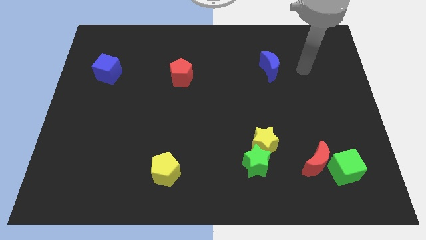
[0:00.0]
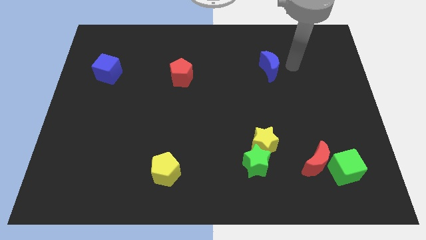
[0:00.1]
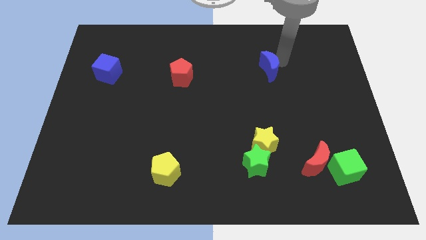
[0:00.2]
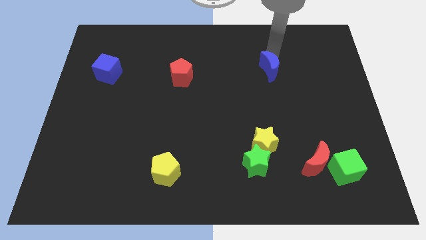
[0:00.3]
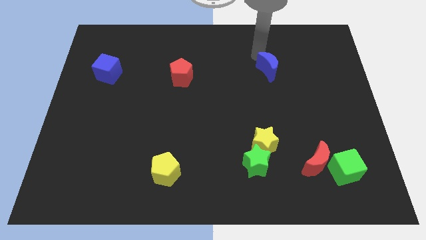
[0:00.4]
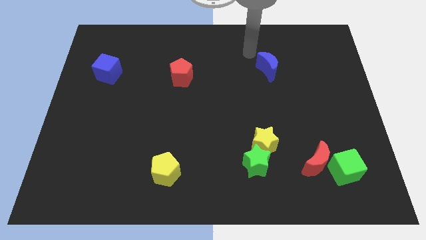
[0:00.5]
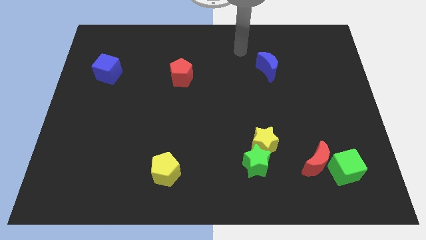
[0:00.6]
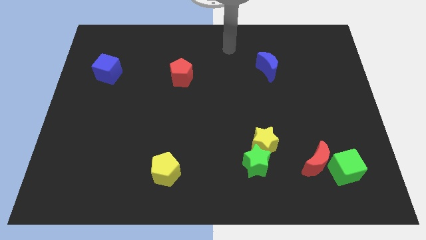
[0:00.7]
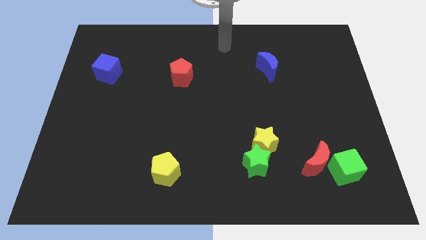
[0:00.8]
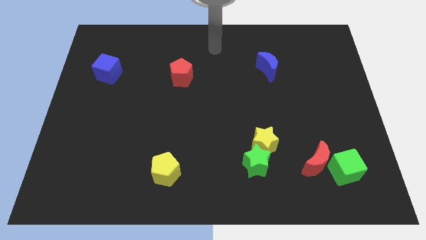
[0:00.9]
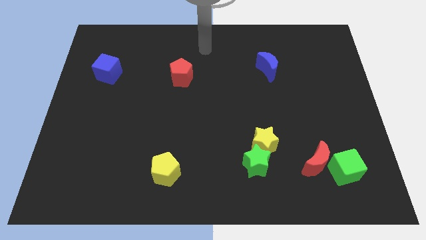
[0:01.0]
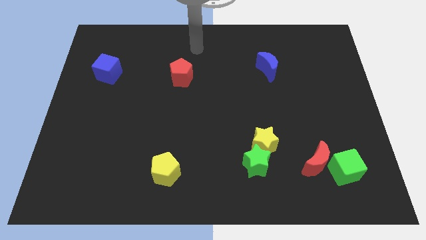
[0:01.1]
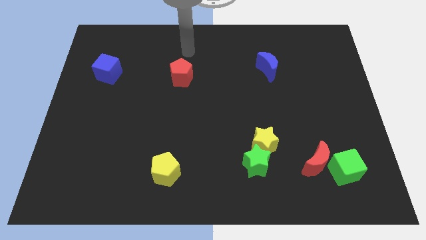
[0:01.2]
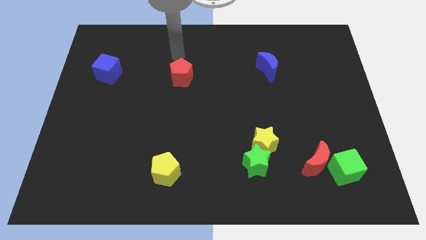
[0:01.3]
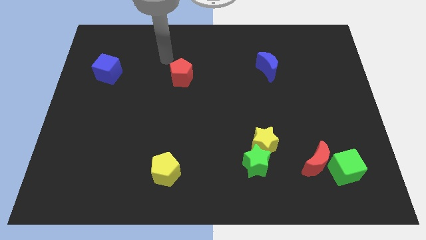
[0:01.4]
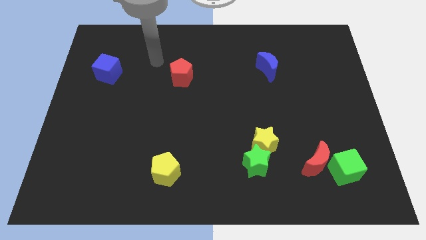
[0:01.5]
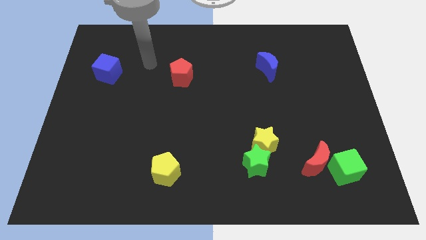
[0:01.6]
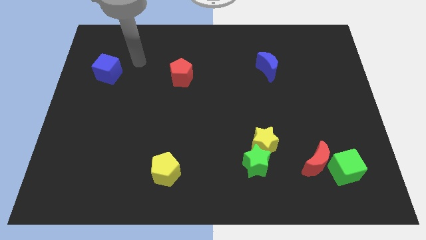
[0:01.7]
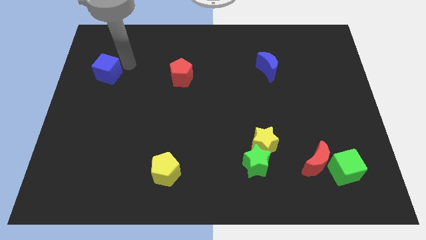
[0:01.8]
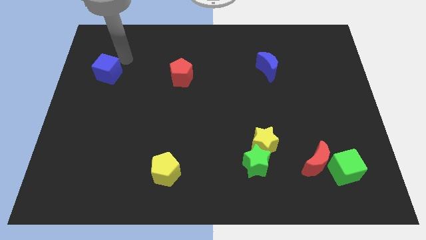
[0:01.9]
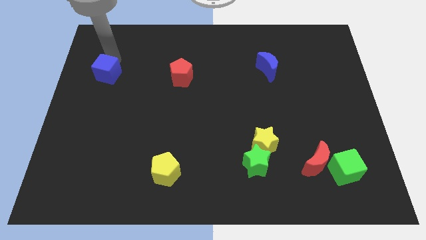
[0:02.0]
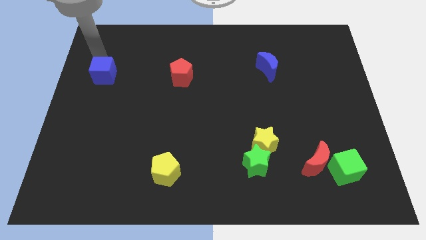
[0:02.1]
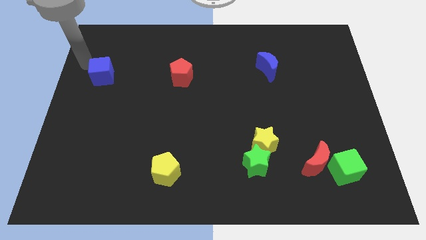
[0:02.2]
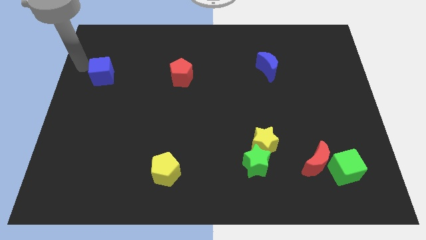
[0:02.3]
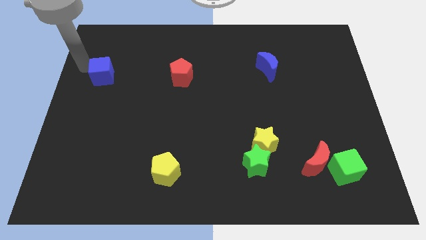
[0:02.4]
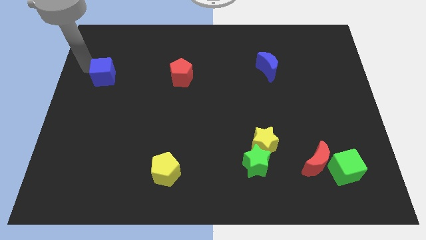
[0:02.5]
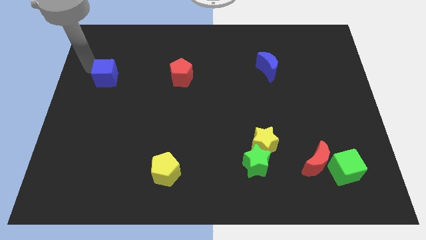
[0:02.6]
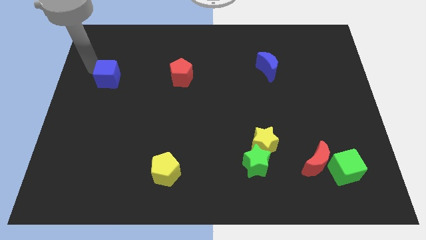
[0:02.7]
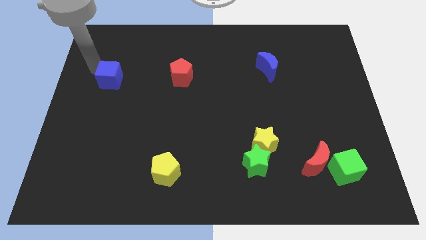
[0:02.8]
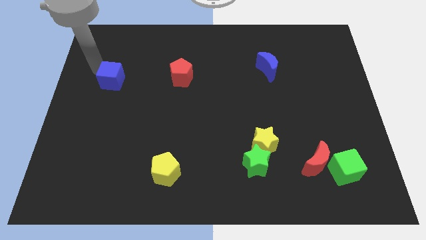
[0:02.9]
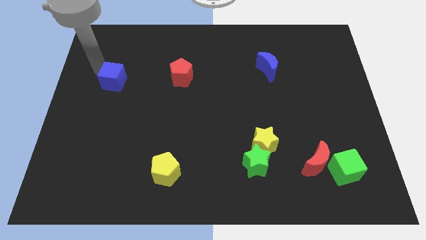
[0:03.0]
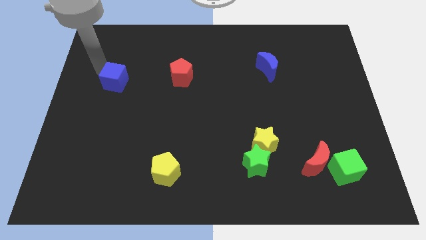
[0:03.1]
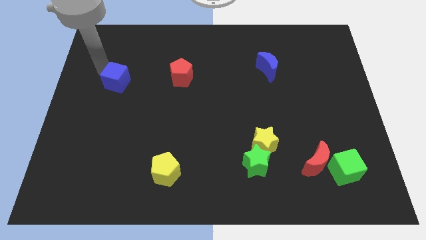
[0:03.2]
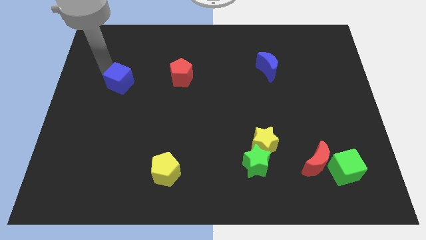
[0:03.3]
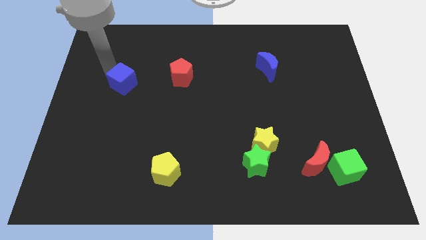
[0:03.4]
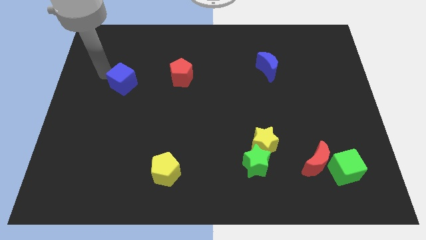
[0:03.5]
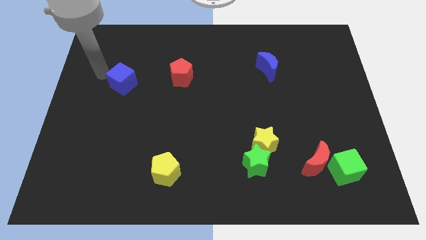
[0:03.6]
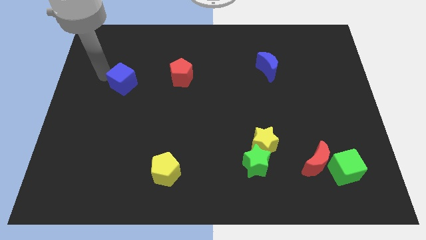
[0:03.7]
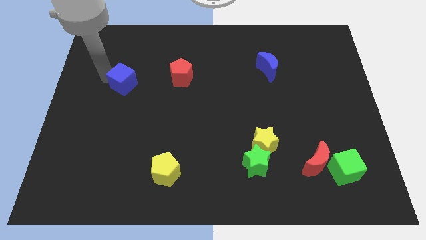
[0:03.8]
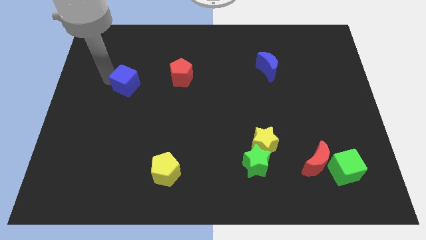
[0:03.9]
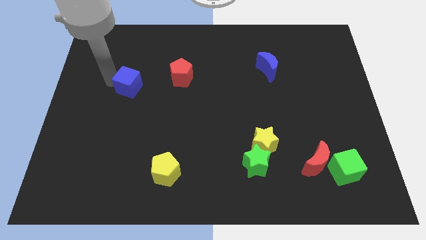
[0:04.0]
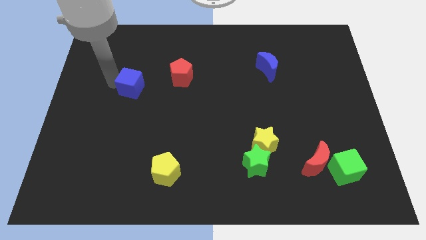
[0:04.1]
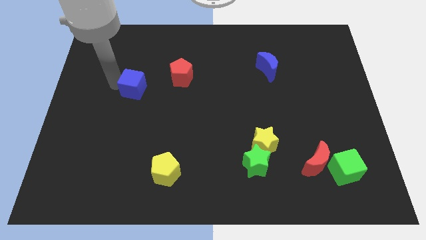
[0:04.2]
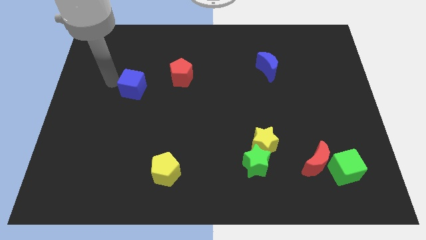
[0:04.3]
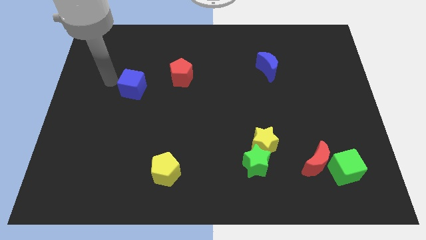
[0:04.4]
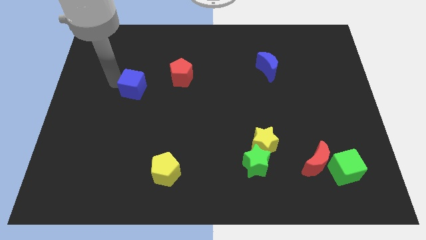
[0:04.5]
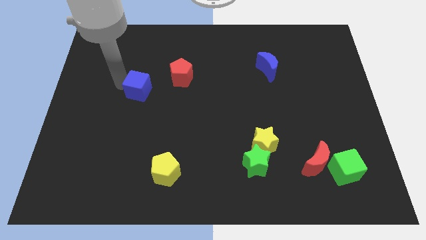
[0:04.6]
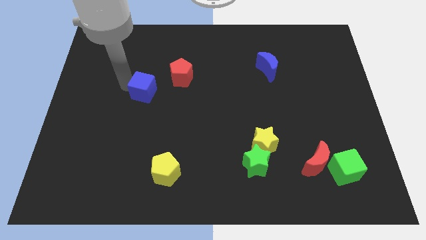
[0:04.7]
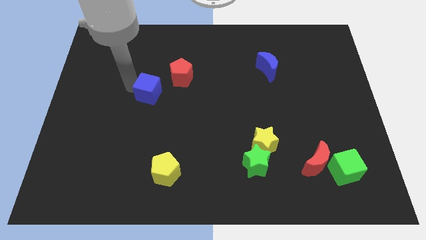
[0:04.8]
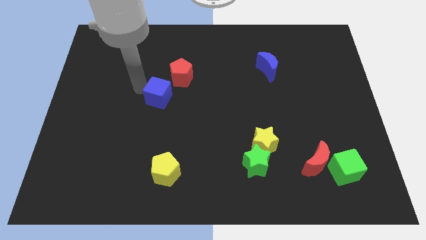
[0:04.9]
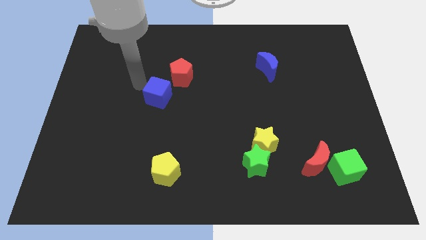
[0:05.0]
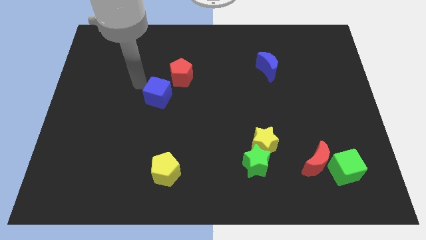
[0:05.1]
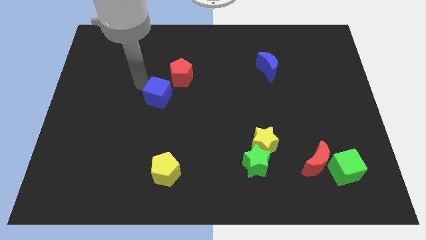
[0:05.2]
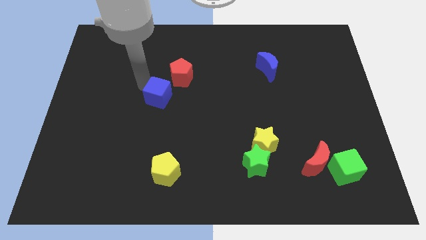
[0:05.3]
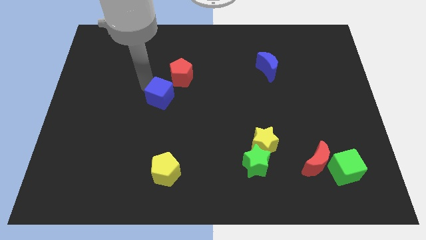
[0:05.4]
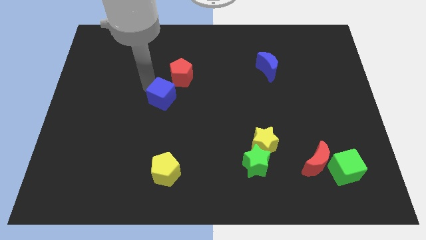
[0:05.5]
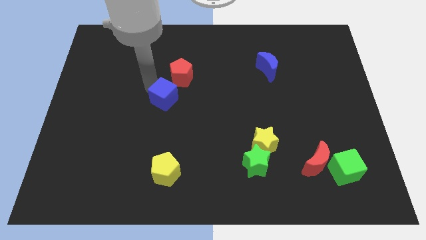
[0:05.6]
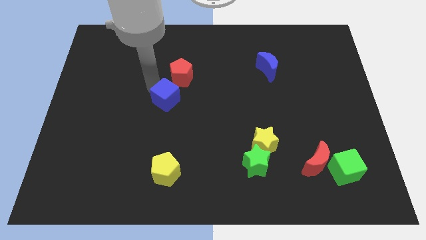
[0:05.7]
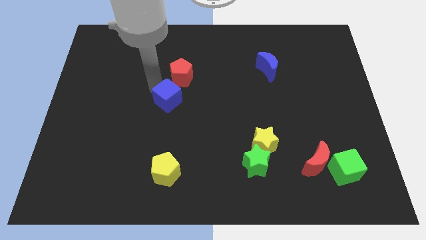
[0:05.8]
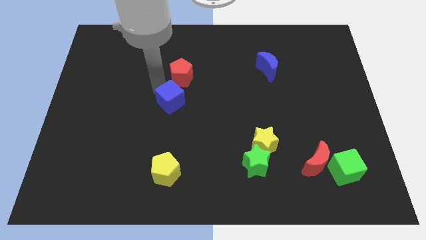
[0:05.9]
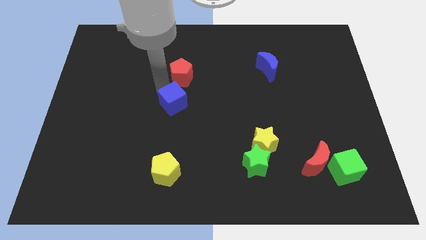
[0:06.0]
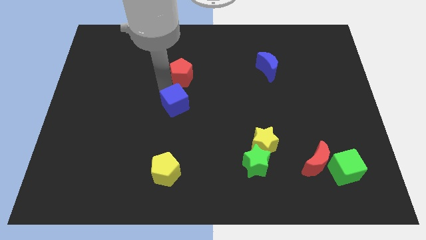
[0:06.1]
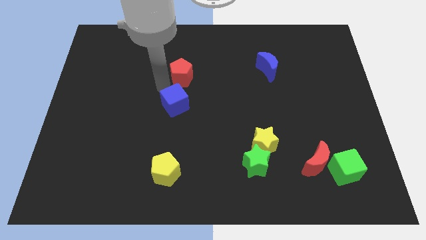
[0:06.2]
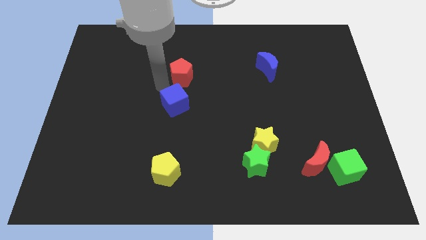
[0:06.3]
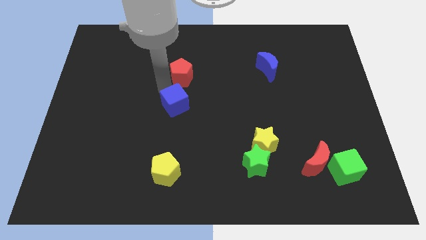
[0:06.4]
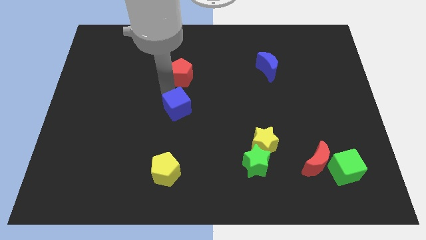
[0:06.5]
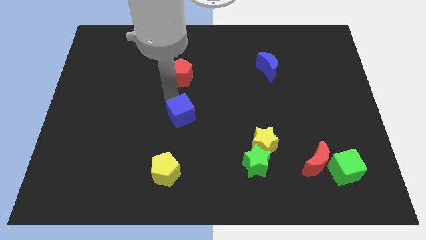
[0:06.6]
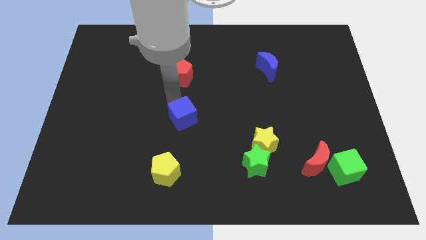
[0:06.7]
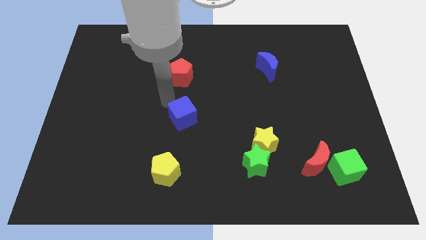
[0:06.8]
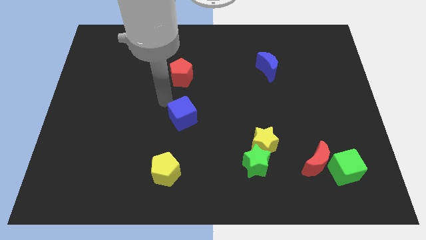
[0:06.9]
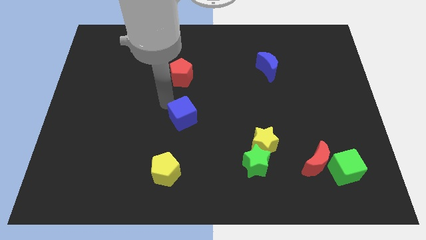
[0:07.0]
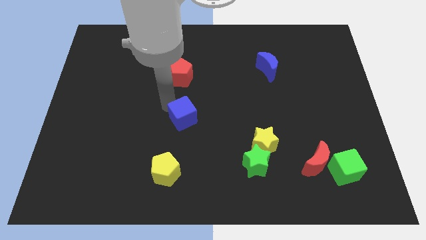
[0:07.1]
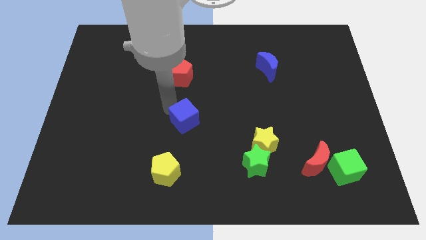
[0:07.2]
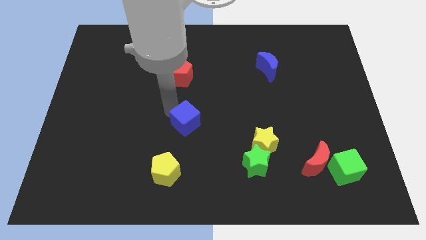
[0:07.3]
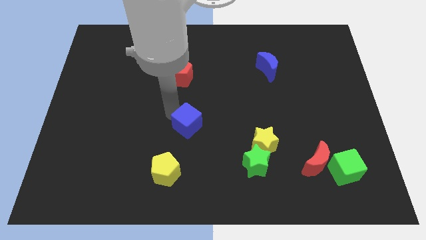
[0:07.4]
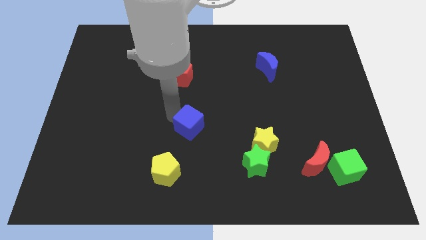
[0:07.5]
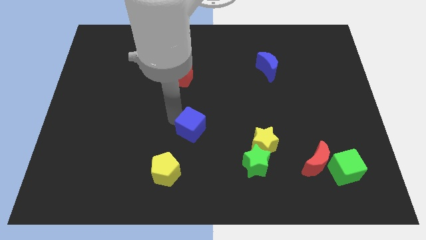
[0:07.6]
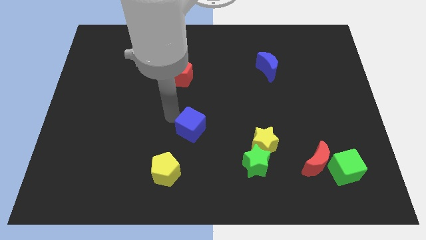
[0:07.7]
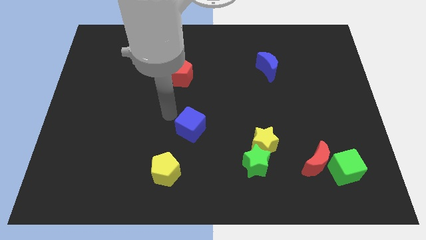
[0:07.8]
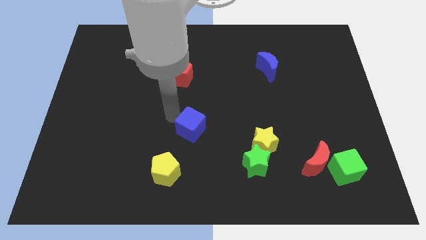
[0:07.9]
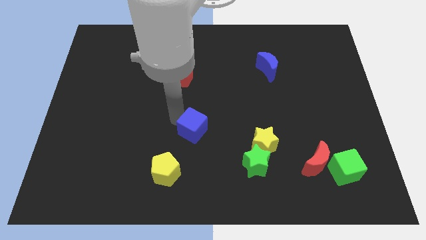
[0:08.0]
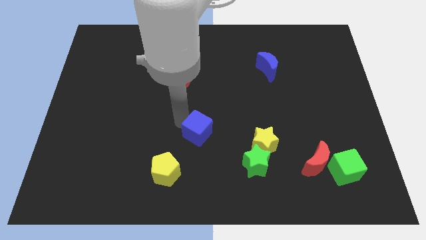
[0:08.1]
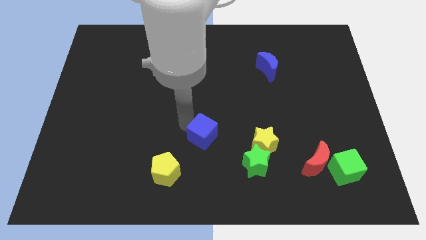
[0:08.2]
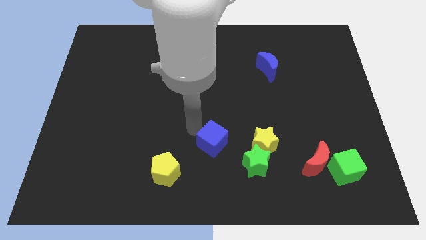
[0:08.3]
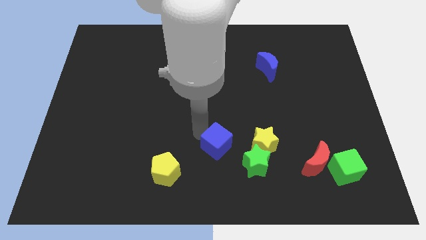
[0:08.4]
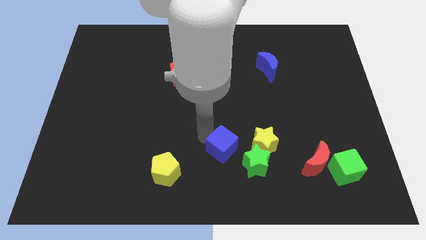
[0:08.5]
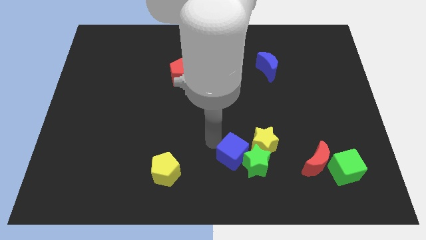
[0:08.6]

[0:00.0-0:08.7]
slide the blue cube close to the green star
